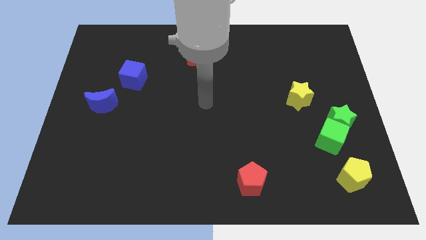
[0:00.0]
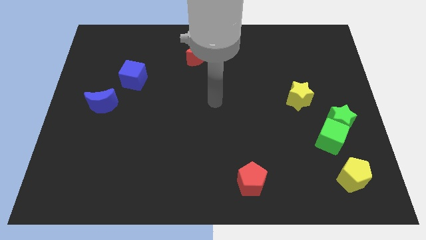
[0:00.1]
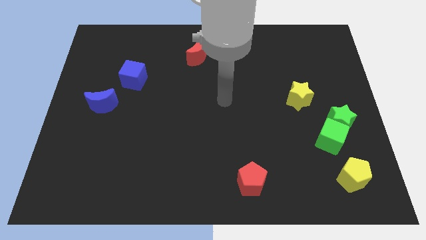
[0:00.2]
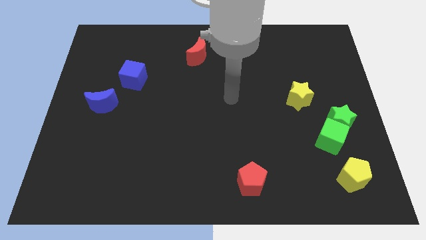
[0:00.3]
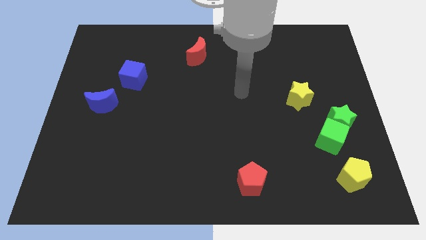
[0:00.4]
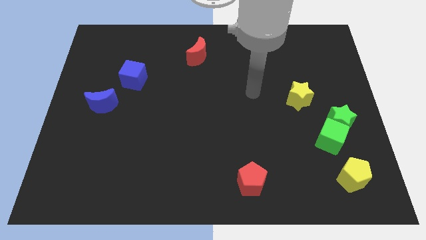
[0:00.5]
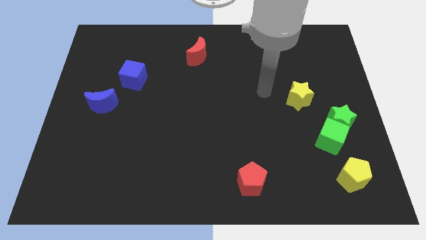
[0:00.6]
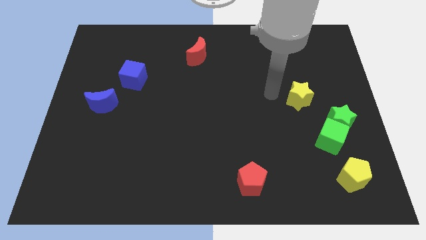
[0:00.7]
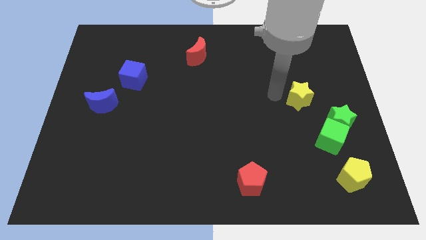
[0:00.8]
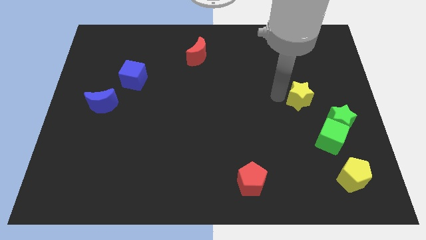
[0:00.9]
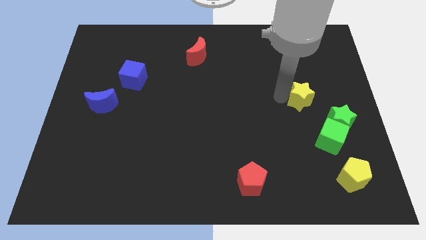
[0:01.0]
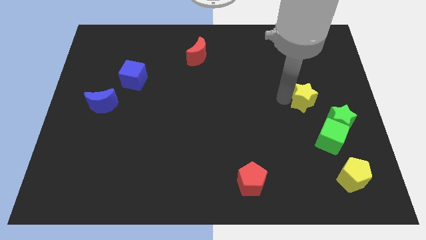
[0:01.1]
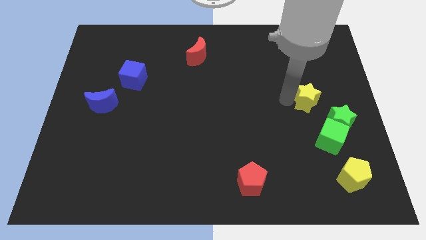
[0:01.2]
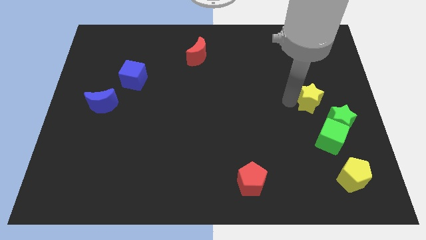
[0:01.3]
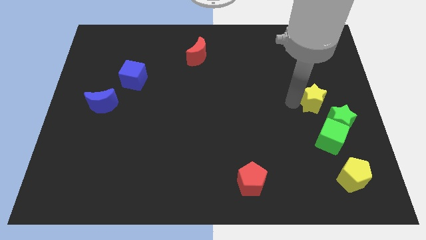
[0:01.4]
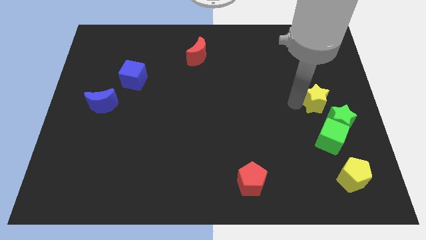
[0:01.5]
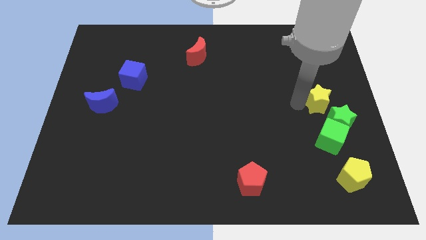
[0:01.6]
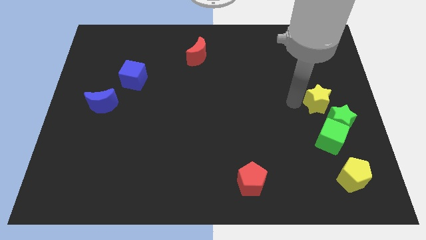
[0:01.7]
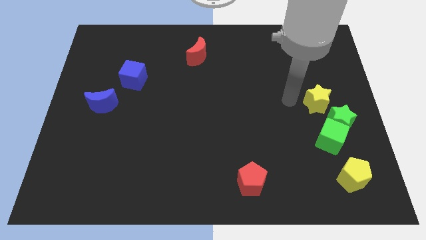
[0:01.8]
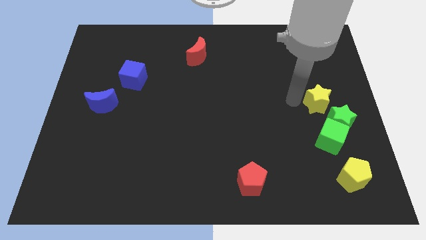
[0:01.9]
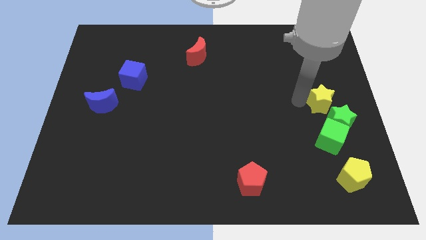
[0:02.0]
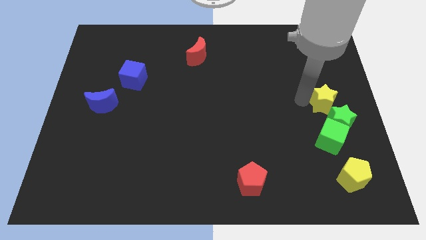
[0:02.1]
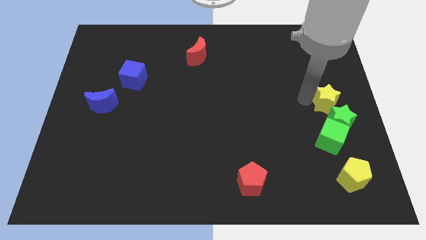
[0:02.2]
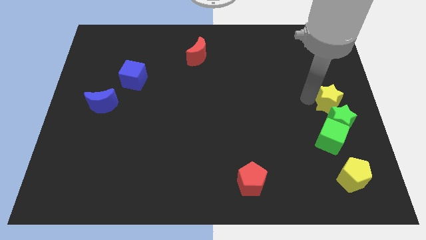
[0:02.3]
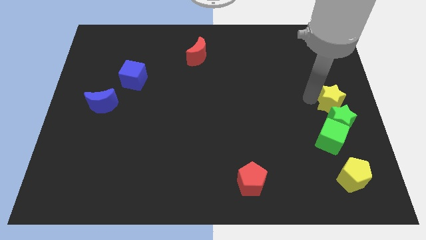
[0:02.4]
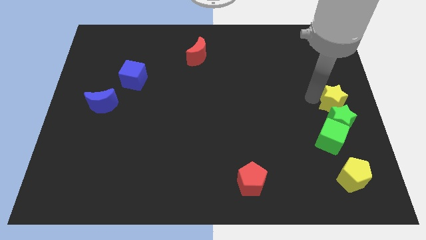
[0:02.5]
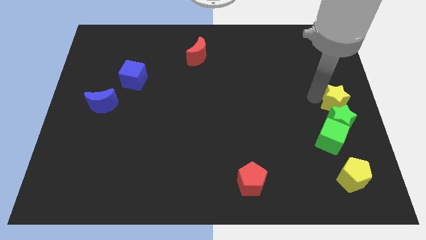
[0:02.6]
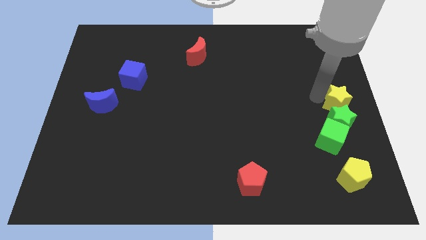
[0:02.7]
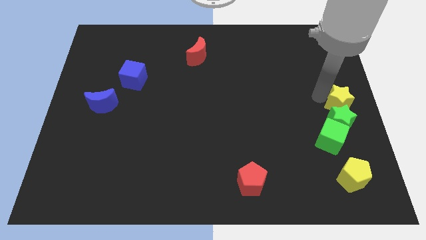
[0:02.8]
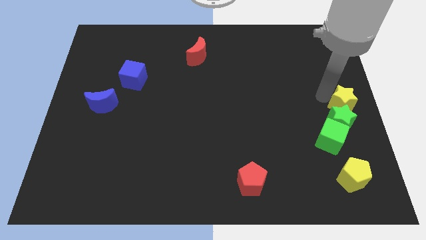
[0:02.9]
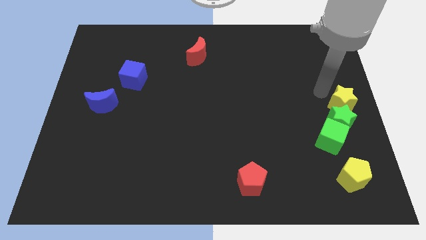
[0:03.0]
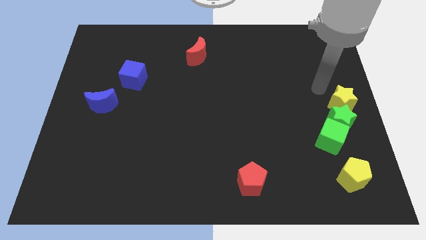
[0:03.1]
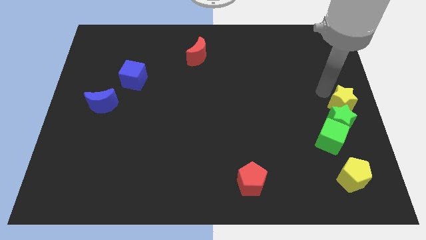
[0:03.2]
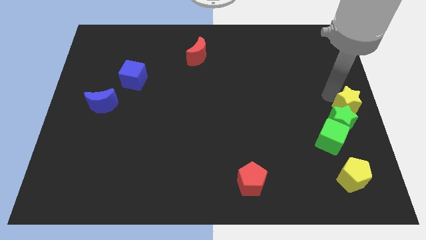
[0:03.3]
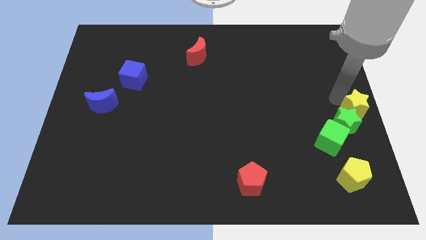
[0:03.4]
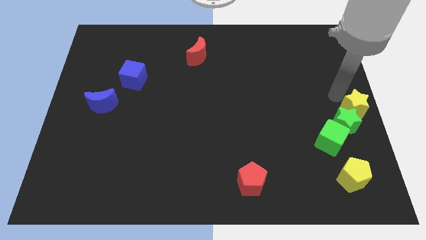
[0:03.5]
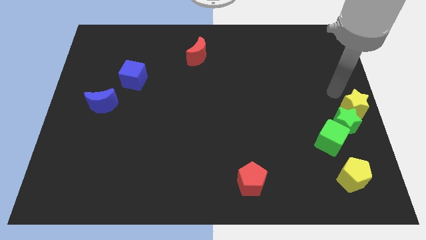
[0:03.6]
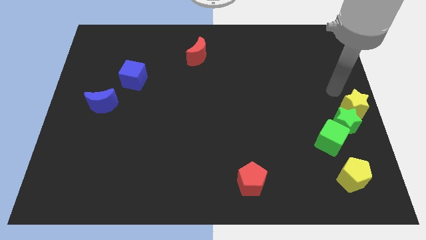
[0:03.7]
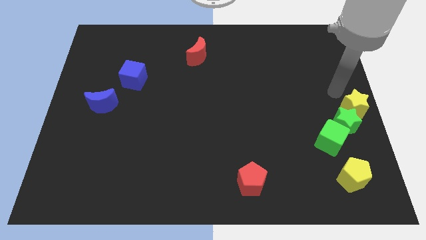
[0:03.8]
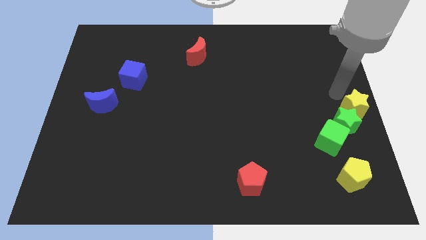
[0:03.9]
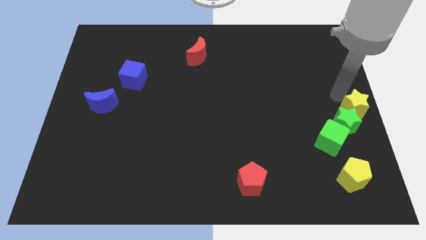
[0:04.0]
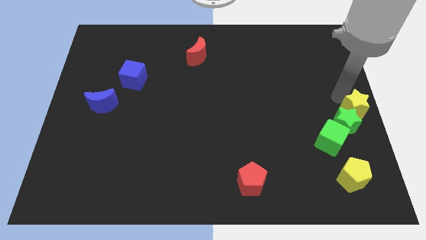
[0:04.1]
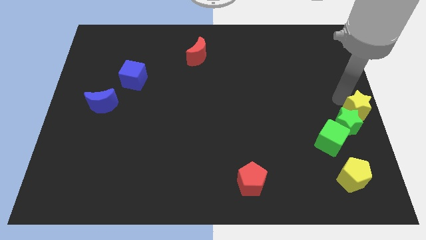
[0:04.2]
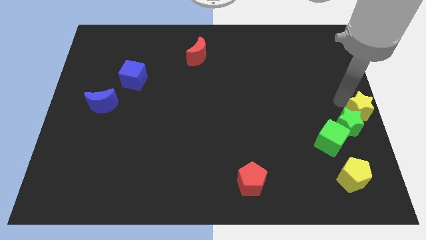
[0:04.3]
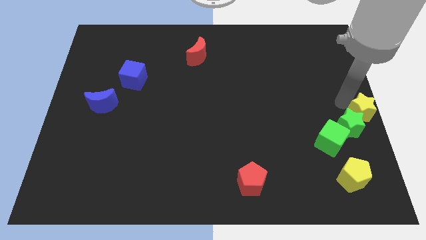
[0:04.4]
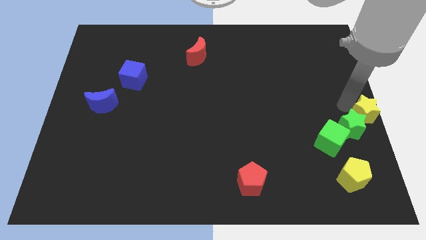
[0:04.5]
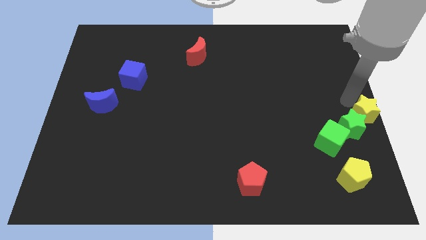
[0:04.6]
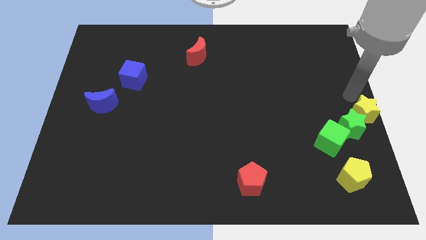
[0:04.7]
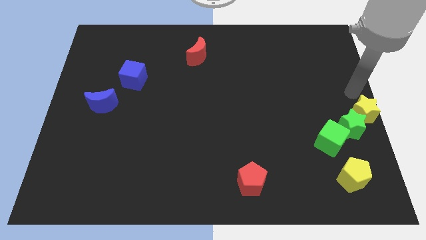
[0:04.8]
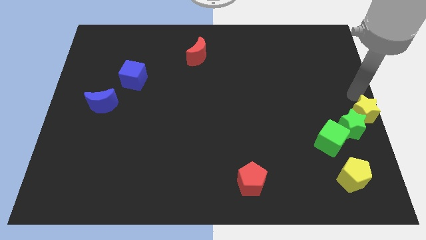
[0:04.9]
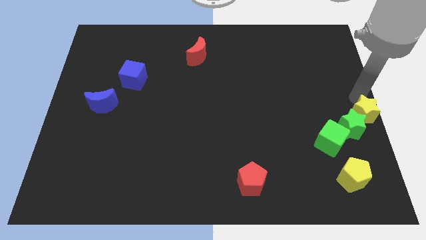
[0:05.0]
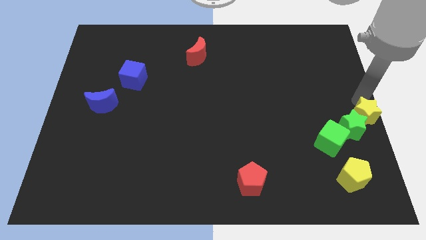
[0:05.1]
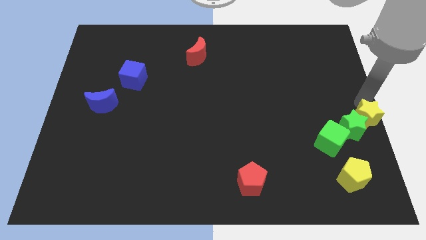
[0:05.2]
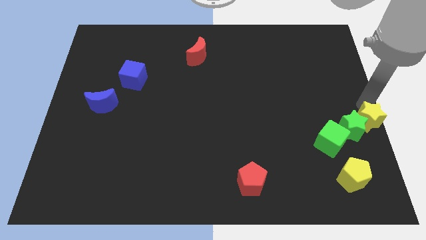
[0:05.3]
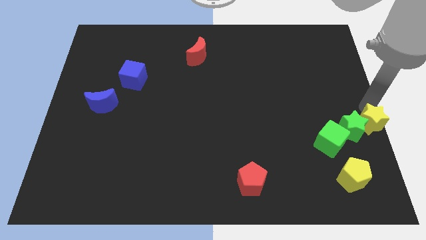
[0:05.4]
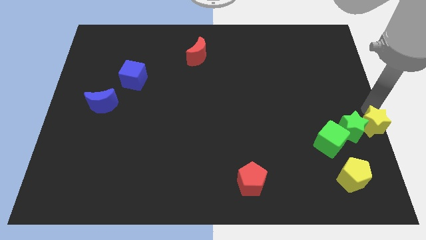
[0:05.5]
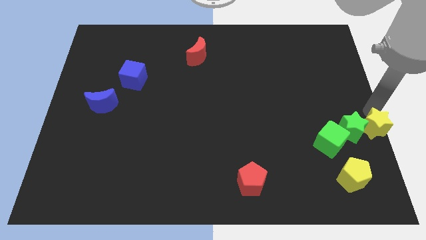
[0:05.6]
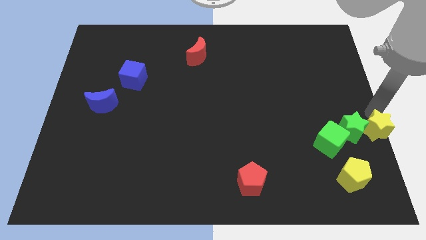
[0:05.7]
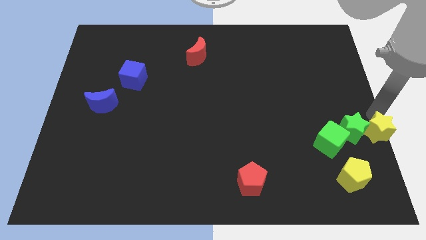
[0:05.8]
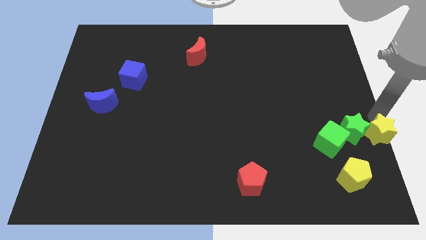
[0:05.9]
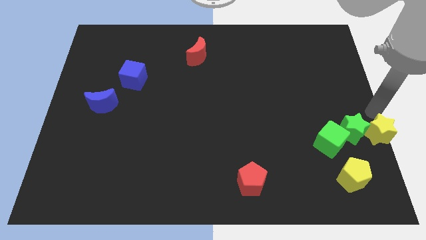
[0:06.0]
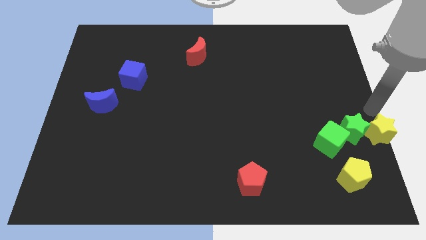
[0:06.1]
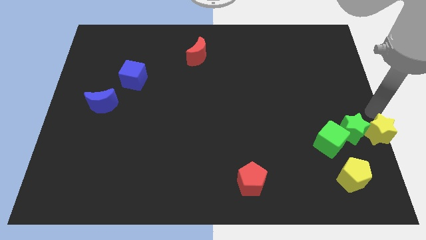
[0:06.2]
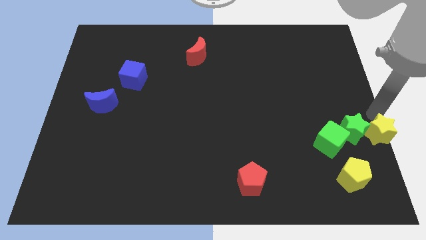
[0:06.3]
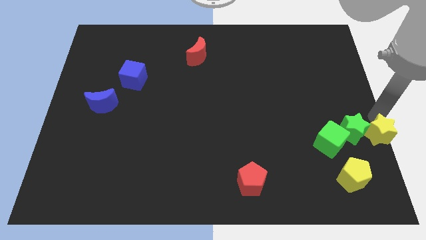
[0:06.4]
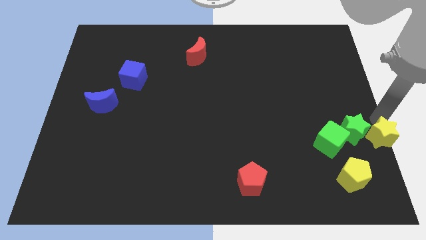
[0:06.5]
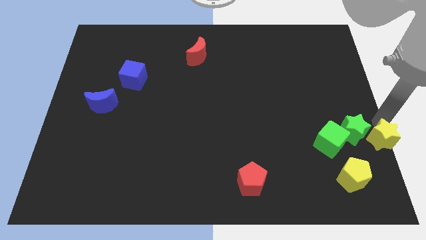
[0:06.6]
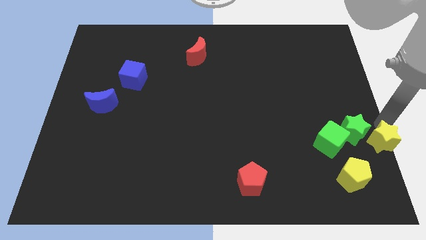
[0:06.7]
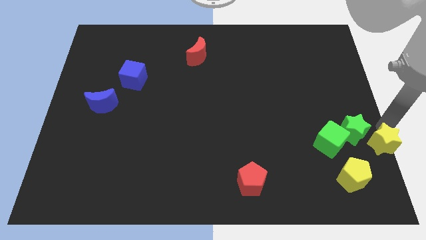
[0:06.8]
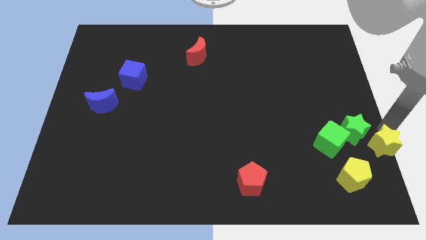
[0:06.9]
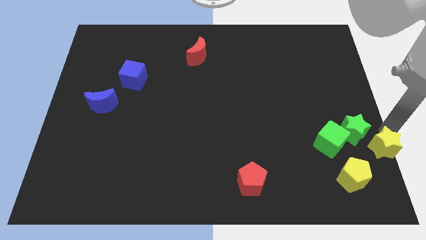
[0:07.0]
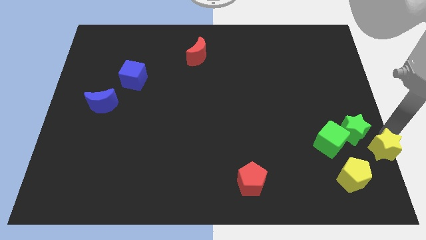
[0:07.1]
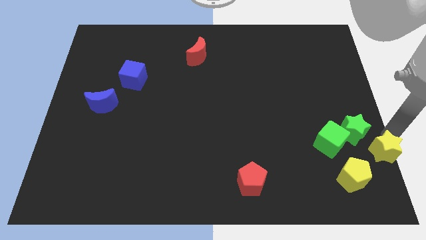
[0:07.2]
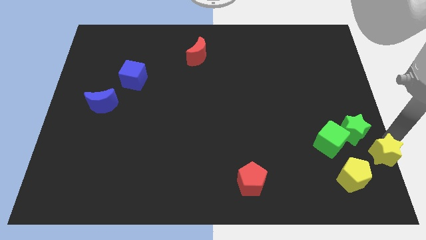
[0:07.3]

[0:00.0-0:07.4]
slide the yellow star to the bottom right of the board
